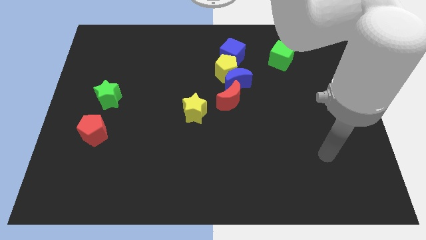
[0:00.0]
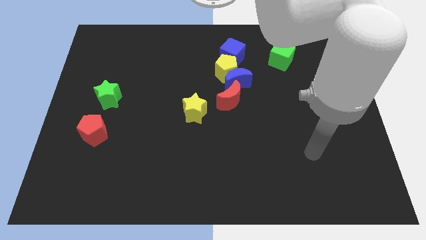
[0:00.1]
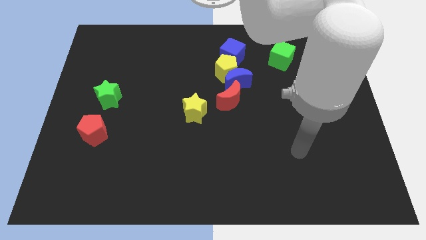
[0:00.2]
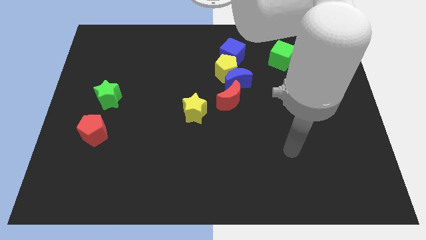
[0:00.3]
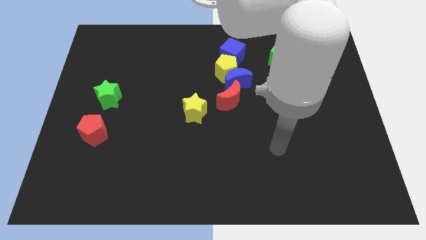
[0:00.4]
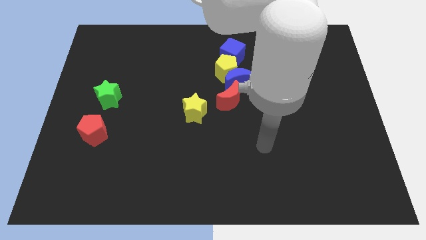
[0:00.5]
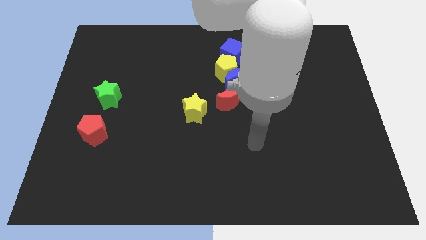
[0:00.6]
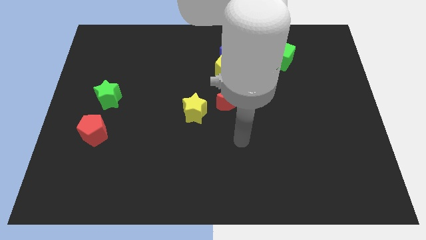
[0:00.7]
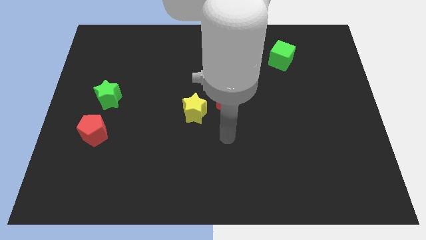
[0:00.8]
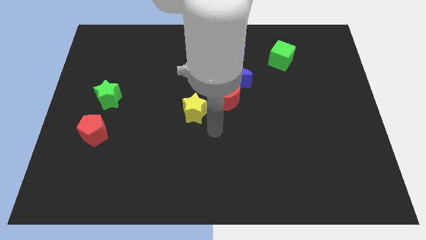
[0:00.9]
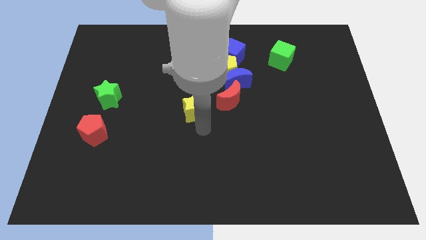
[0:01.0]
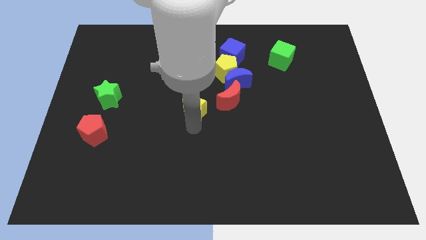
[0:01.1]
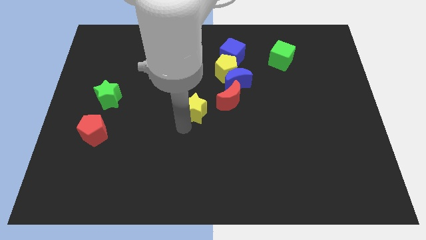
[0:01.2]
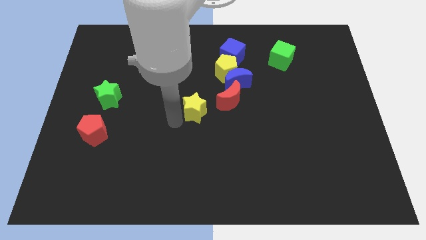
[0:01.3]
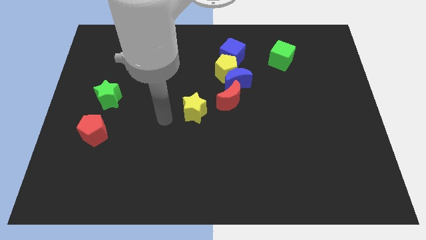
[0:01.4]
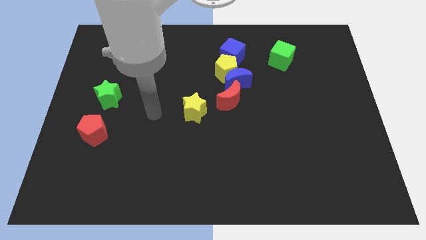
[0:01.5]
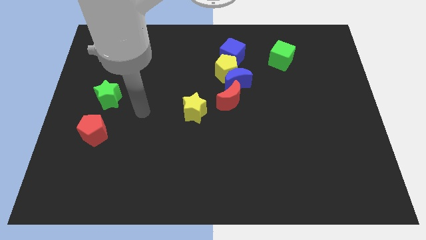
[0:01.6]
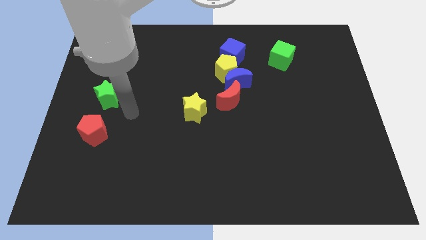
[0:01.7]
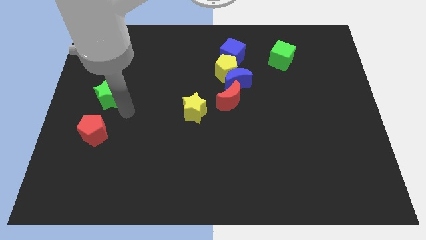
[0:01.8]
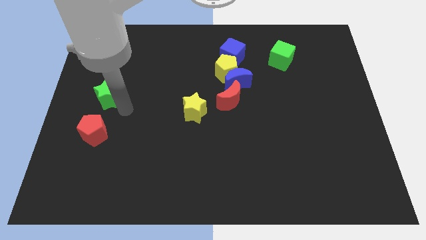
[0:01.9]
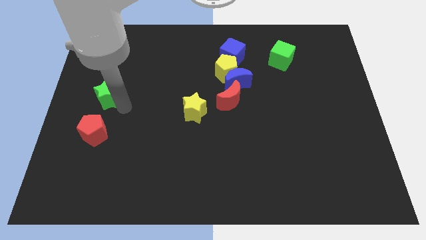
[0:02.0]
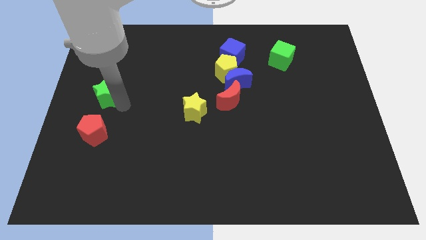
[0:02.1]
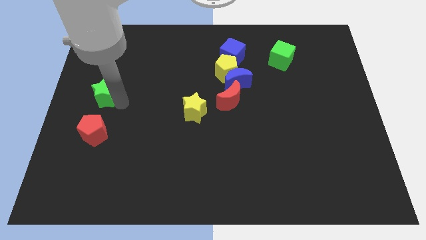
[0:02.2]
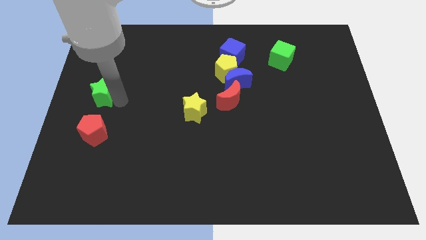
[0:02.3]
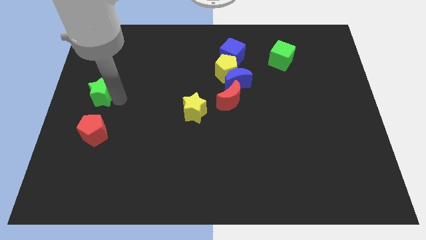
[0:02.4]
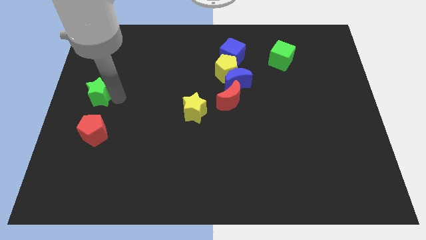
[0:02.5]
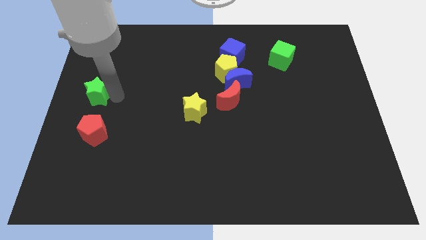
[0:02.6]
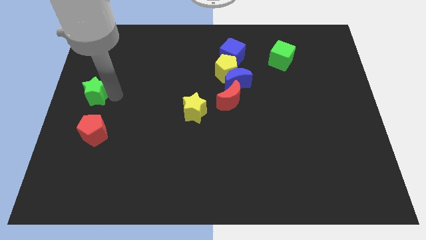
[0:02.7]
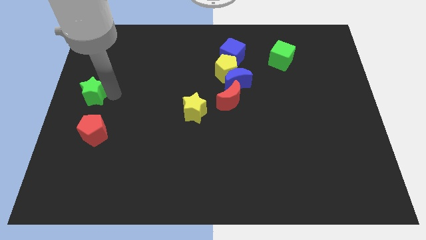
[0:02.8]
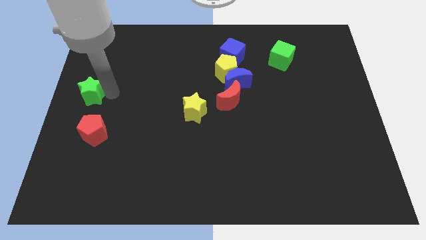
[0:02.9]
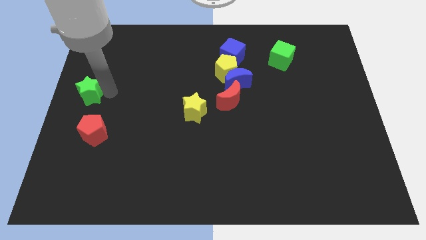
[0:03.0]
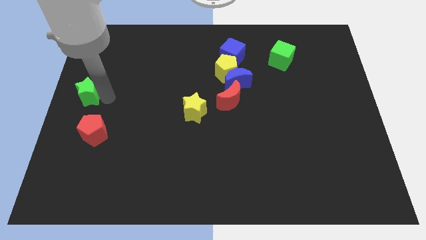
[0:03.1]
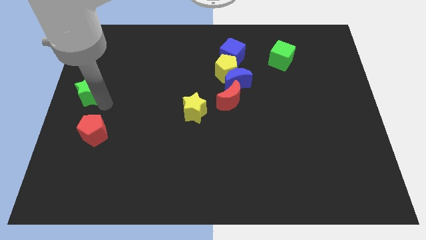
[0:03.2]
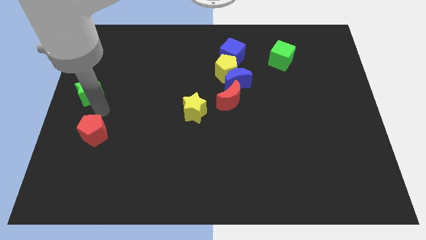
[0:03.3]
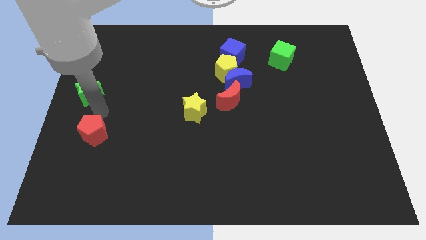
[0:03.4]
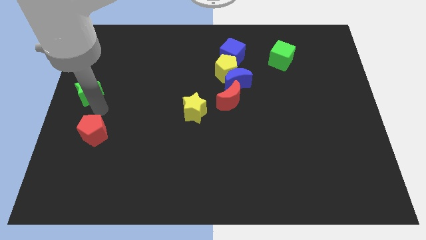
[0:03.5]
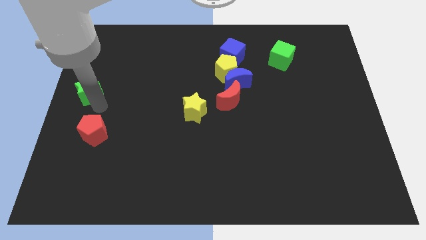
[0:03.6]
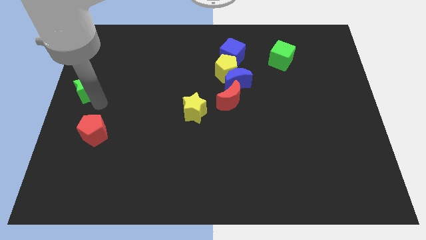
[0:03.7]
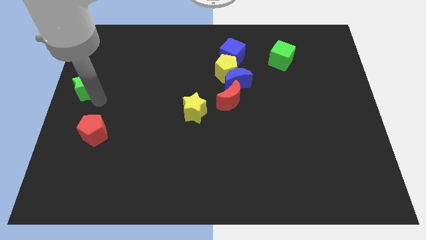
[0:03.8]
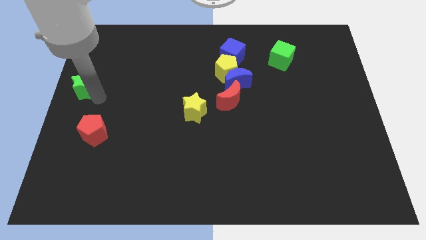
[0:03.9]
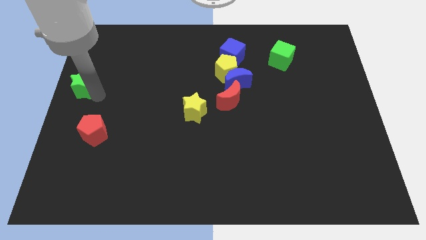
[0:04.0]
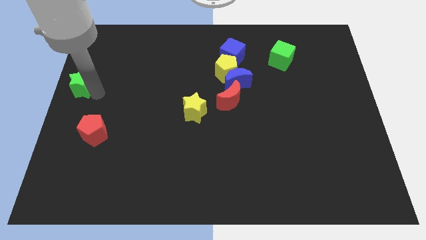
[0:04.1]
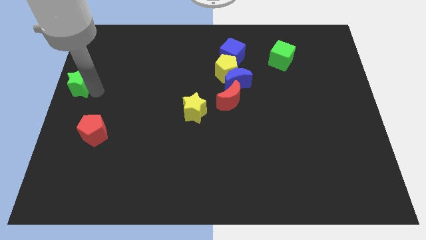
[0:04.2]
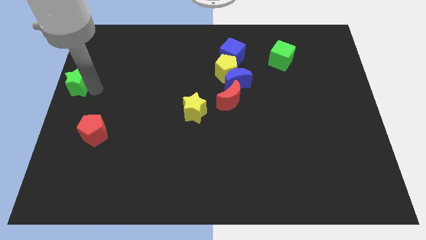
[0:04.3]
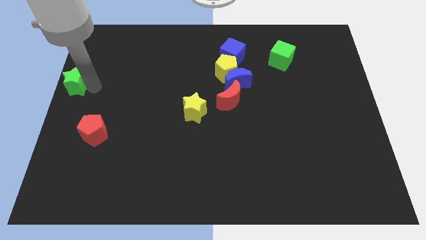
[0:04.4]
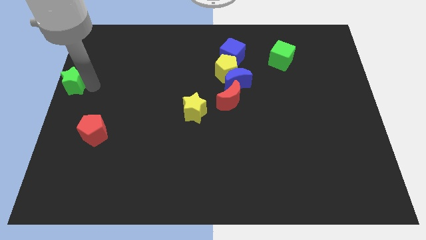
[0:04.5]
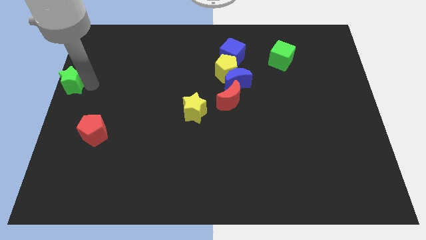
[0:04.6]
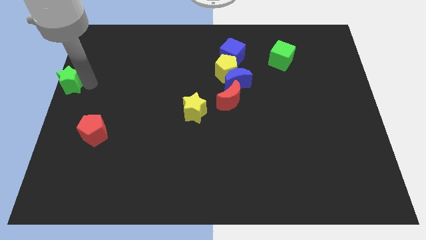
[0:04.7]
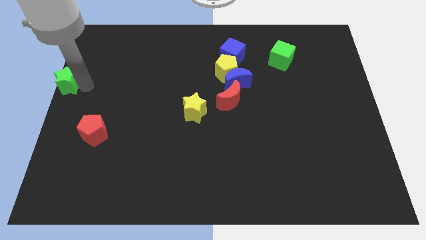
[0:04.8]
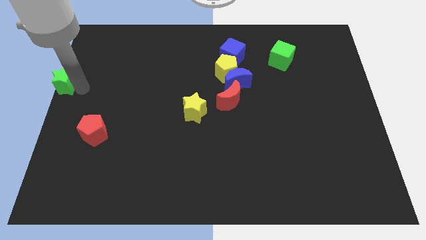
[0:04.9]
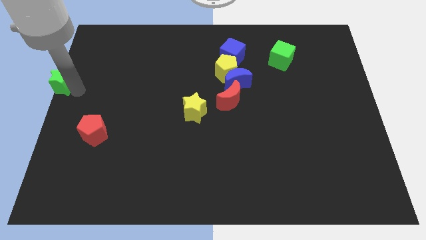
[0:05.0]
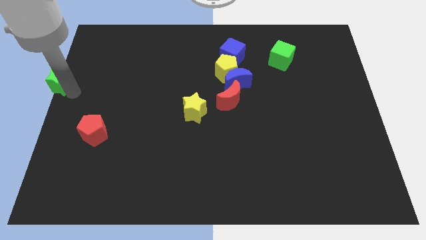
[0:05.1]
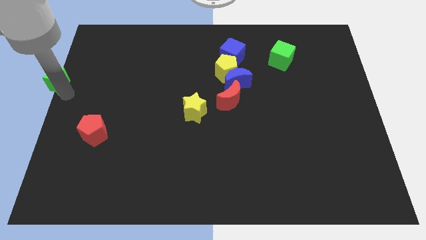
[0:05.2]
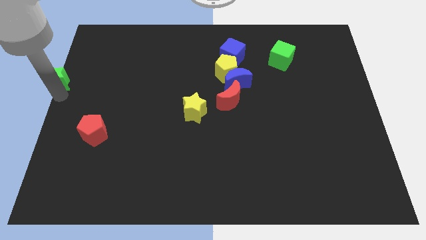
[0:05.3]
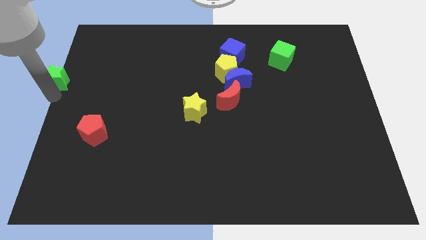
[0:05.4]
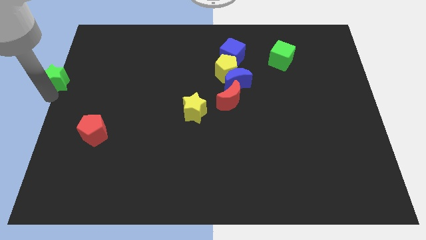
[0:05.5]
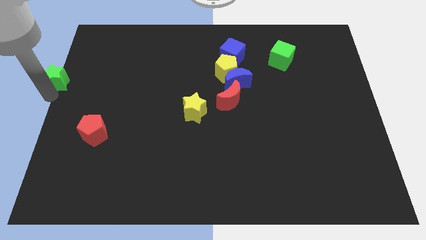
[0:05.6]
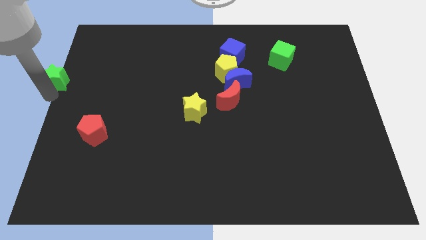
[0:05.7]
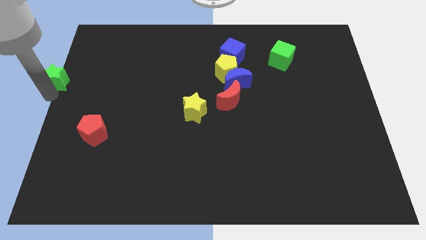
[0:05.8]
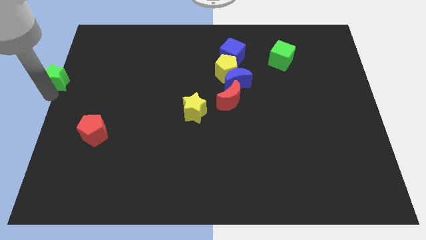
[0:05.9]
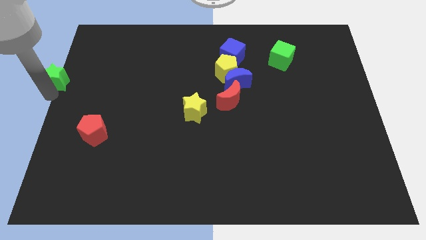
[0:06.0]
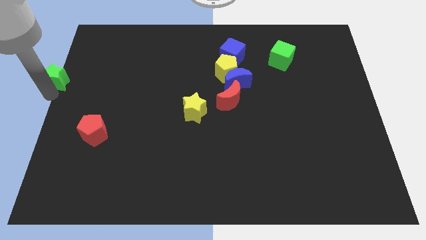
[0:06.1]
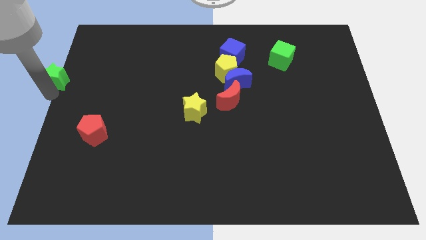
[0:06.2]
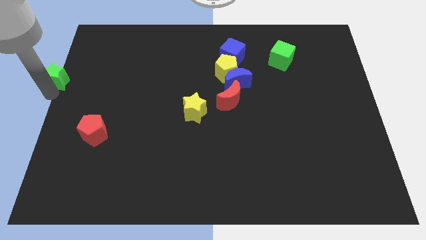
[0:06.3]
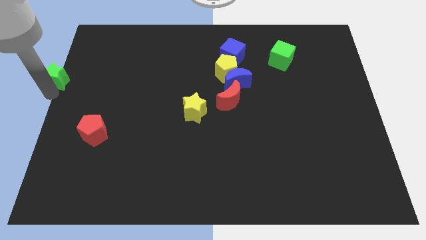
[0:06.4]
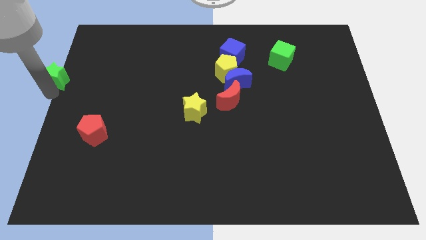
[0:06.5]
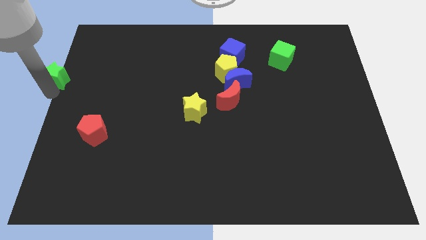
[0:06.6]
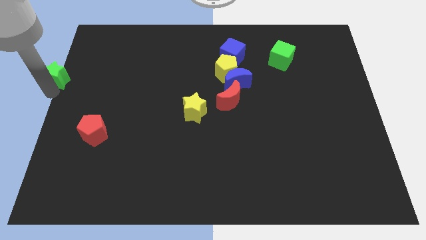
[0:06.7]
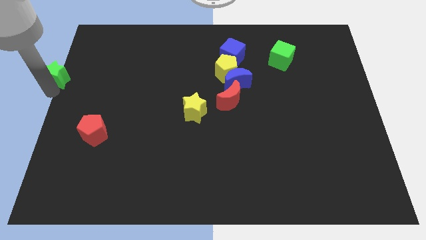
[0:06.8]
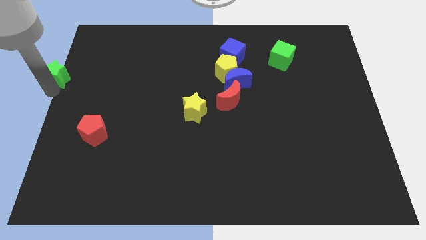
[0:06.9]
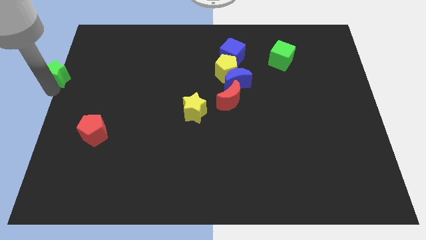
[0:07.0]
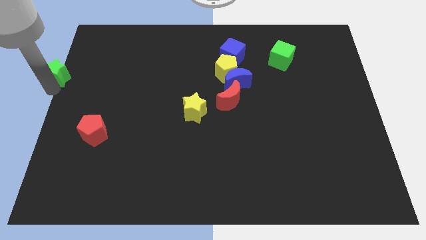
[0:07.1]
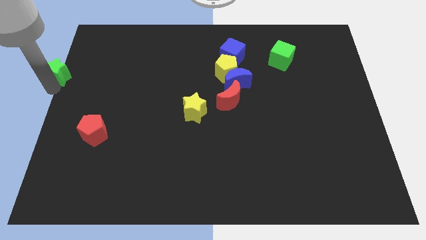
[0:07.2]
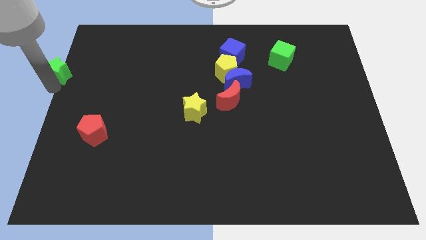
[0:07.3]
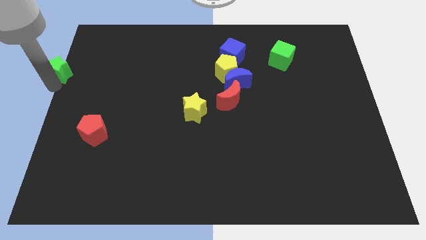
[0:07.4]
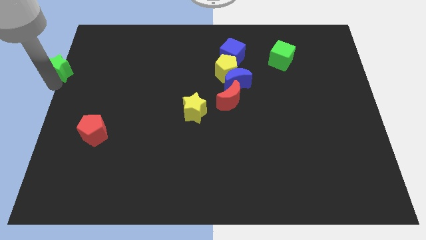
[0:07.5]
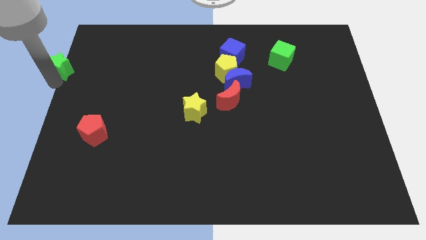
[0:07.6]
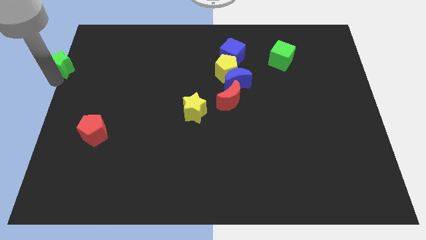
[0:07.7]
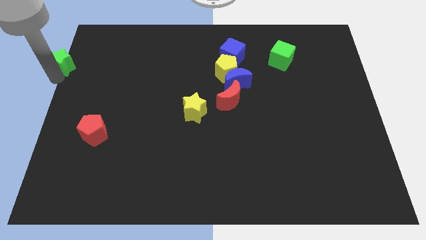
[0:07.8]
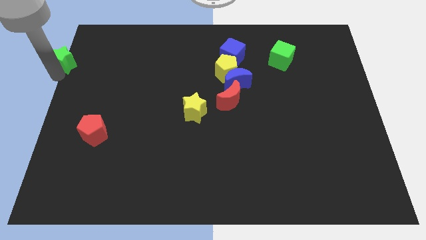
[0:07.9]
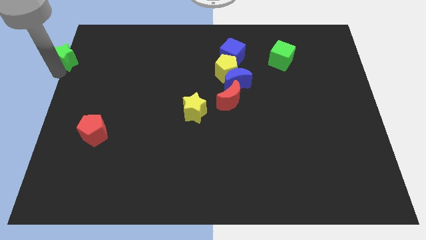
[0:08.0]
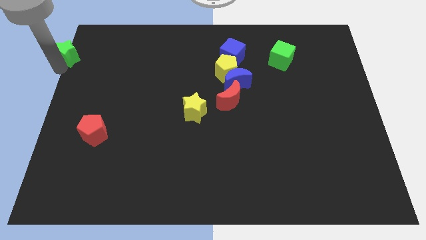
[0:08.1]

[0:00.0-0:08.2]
slide the green star to the upper left corner
